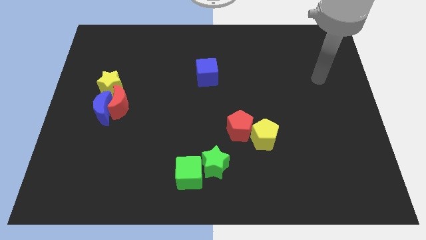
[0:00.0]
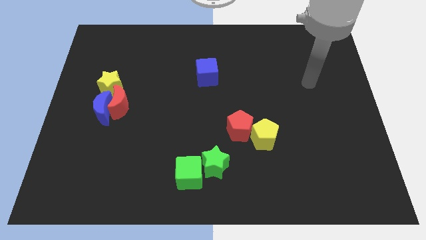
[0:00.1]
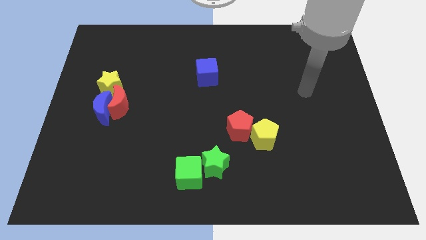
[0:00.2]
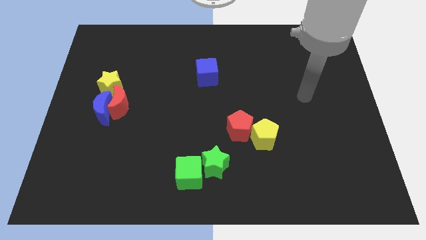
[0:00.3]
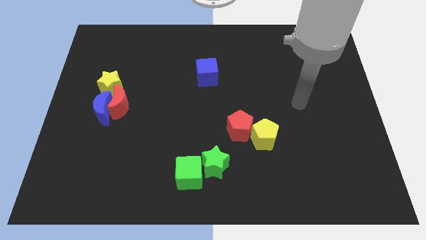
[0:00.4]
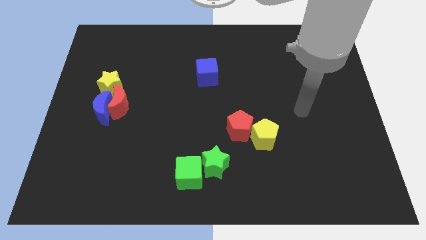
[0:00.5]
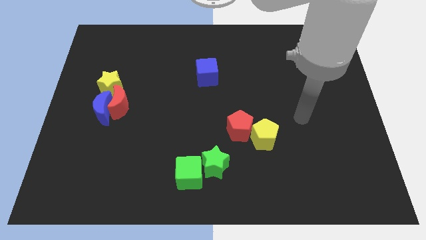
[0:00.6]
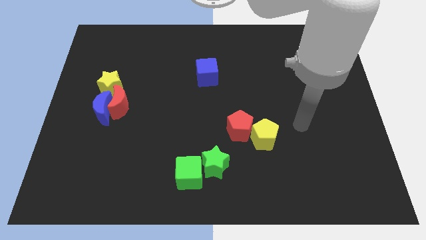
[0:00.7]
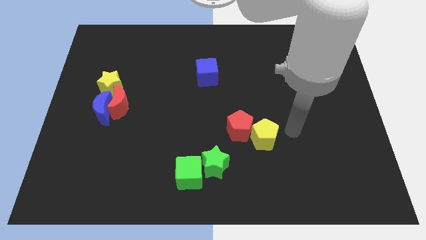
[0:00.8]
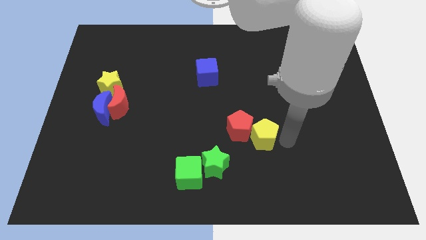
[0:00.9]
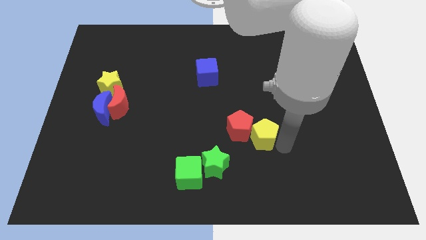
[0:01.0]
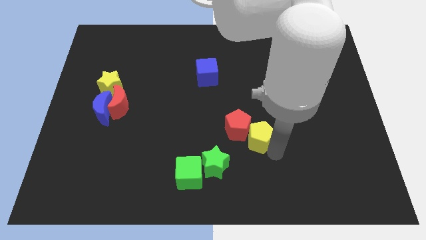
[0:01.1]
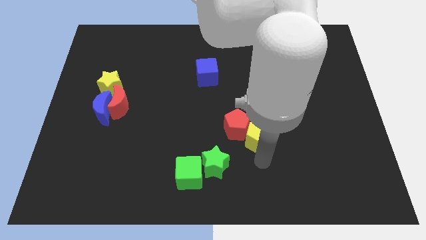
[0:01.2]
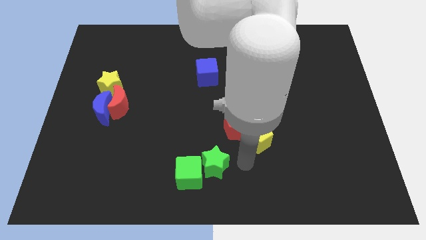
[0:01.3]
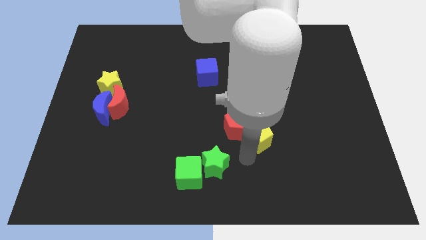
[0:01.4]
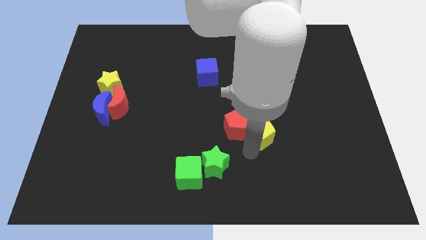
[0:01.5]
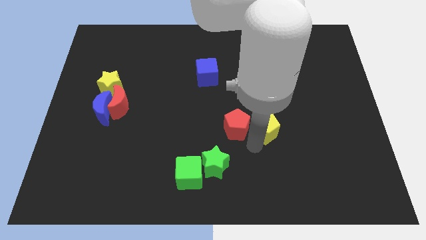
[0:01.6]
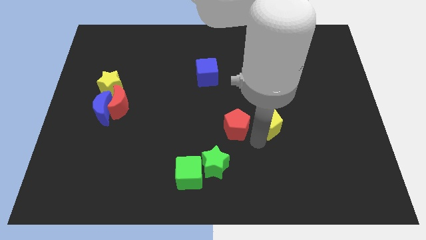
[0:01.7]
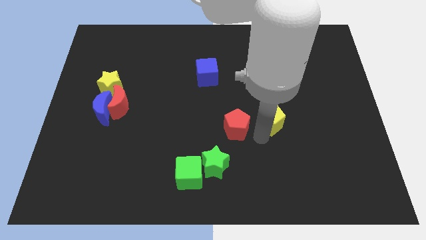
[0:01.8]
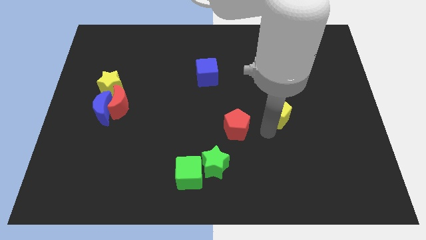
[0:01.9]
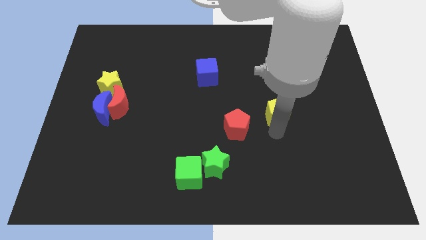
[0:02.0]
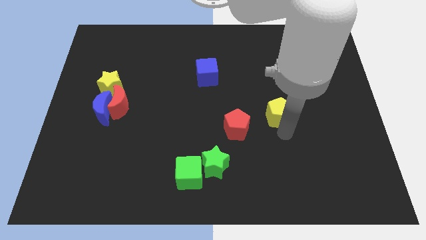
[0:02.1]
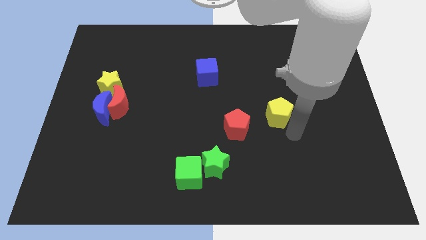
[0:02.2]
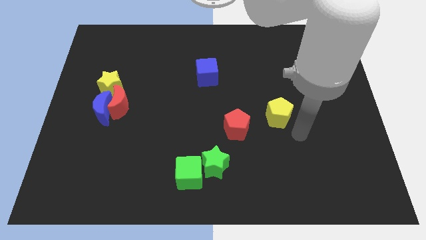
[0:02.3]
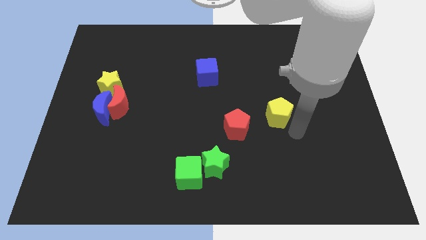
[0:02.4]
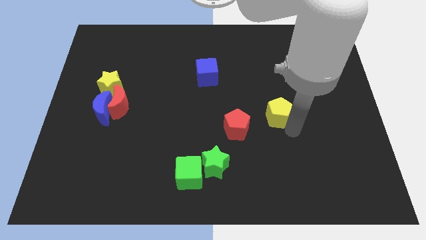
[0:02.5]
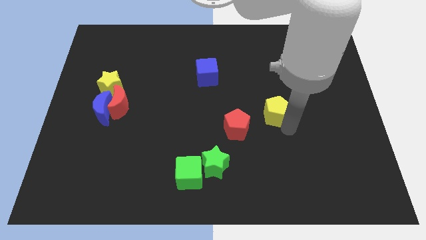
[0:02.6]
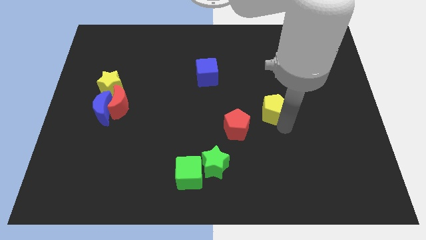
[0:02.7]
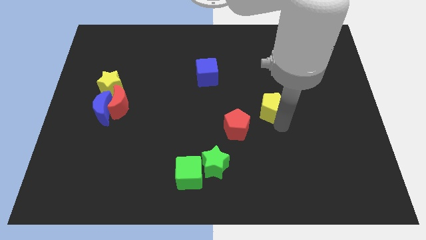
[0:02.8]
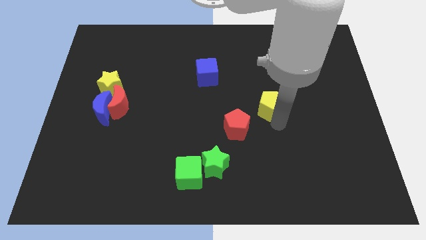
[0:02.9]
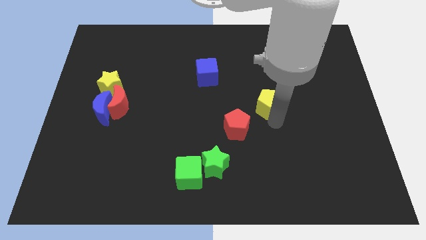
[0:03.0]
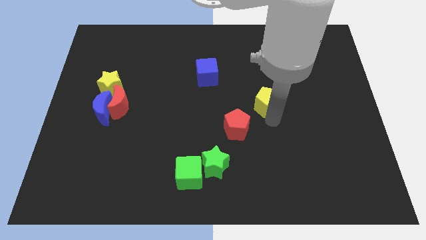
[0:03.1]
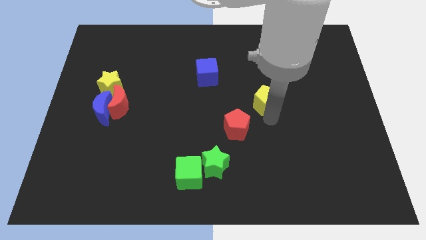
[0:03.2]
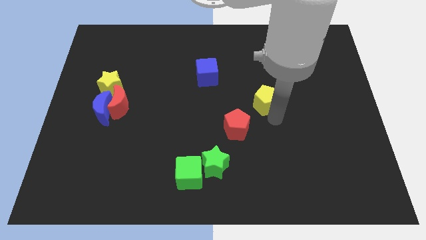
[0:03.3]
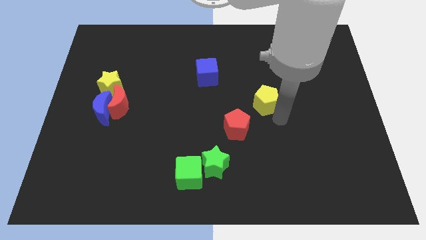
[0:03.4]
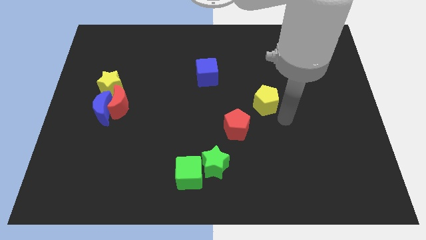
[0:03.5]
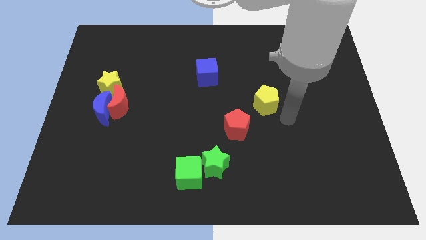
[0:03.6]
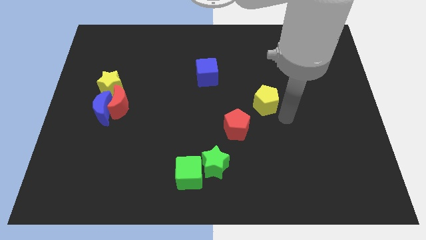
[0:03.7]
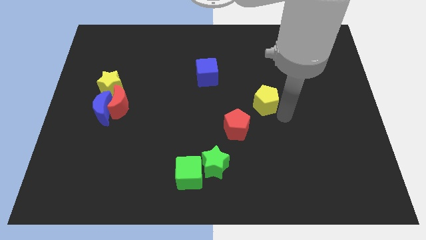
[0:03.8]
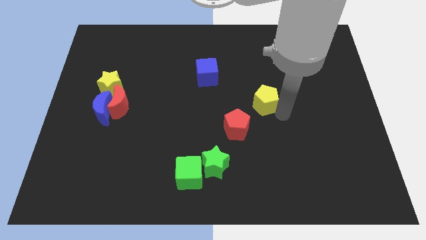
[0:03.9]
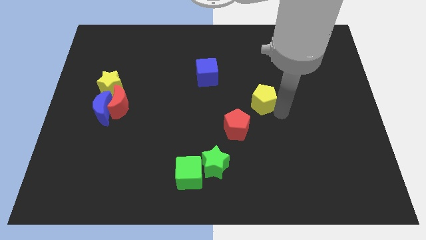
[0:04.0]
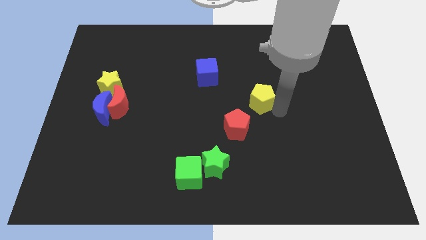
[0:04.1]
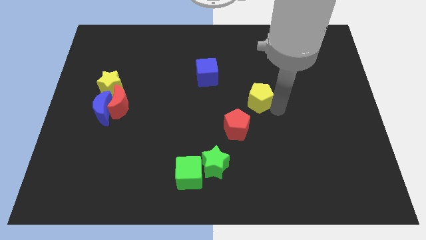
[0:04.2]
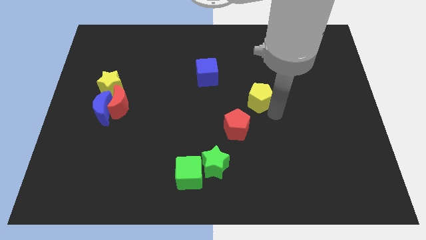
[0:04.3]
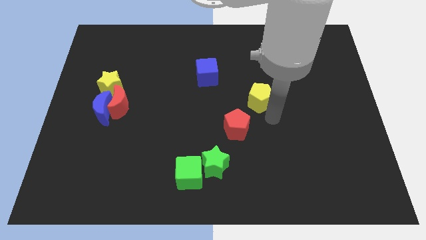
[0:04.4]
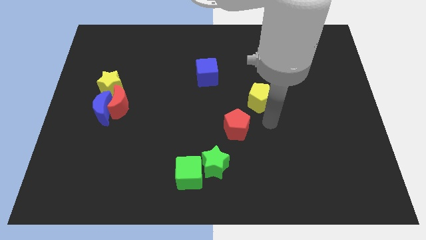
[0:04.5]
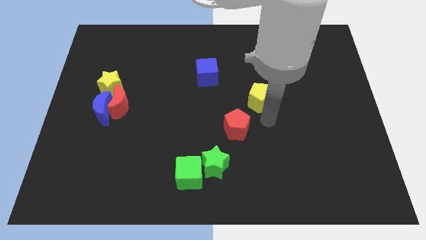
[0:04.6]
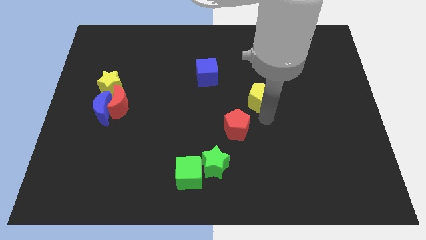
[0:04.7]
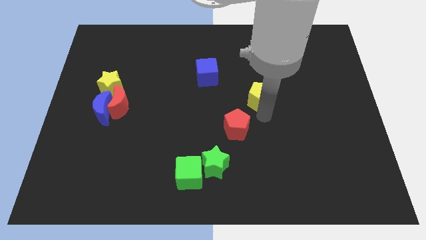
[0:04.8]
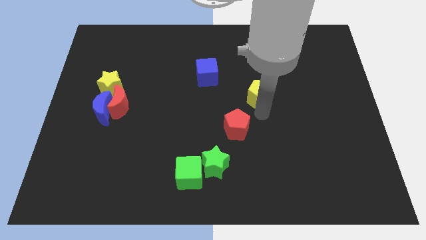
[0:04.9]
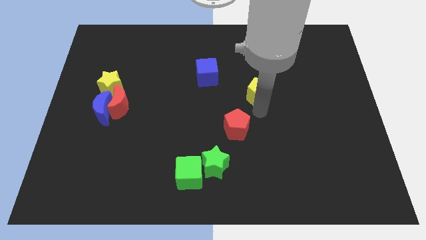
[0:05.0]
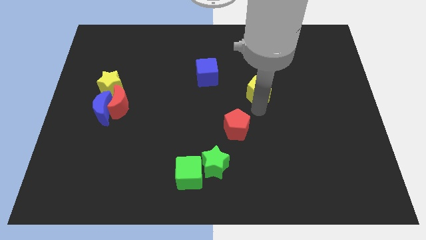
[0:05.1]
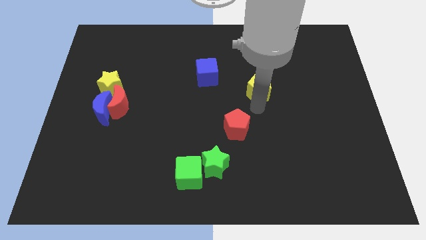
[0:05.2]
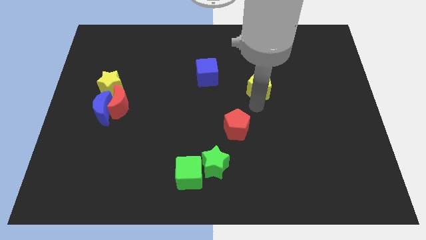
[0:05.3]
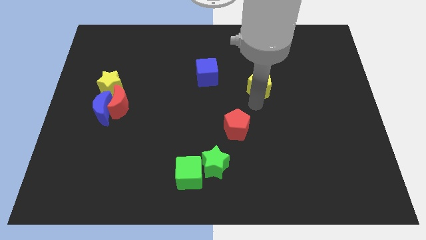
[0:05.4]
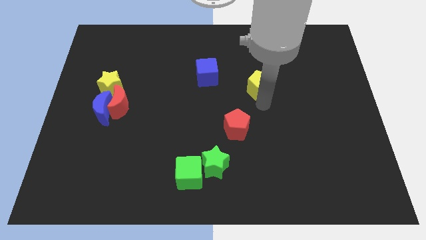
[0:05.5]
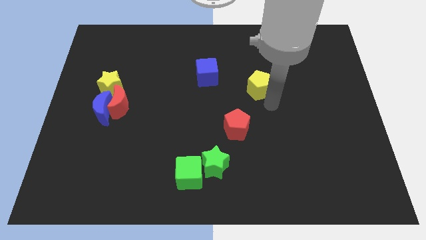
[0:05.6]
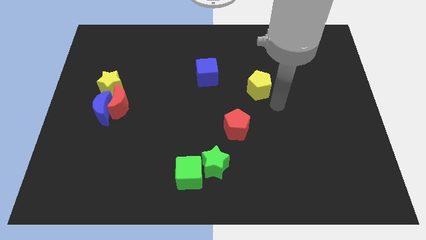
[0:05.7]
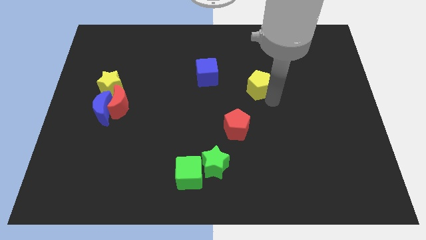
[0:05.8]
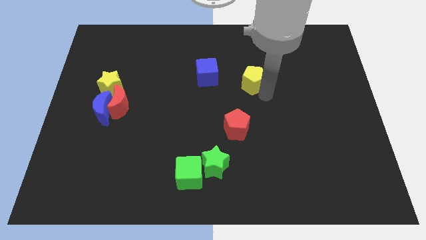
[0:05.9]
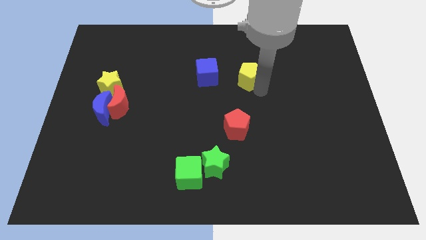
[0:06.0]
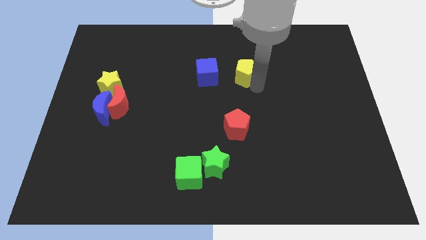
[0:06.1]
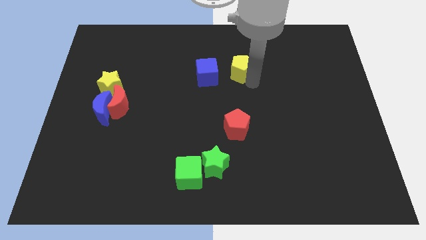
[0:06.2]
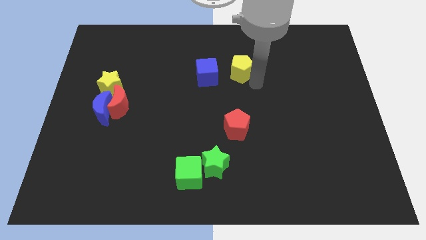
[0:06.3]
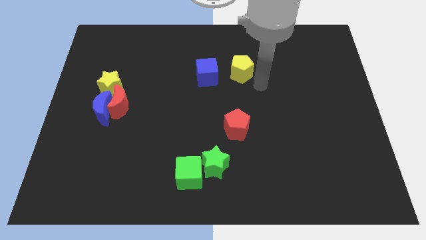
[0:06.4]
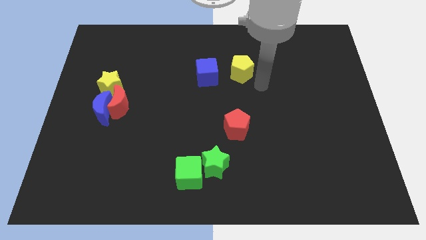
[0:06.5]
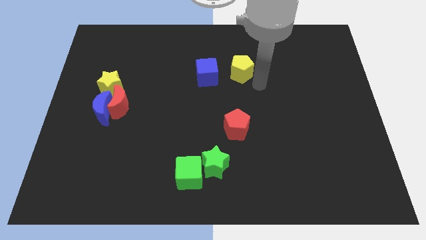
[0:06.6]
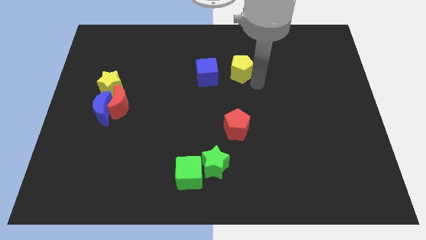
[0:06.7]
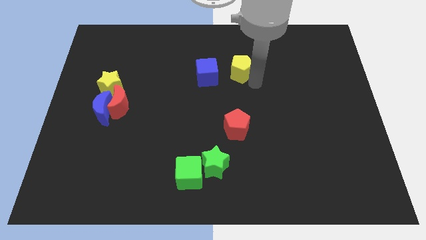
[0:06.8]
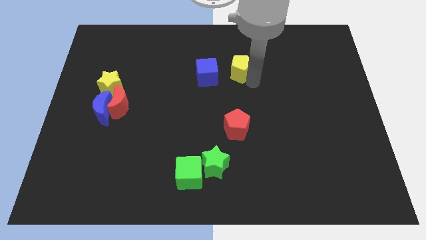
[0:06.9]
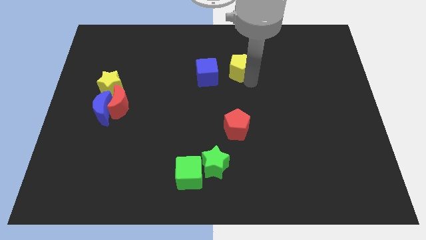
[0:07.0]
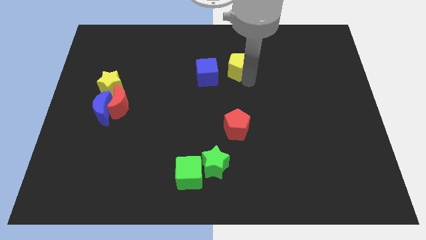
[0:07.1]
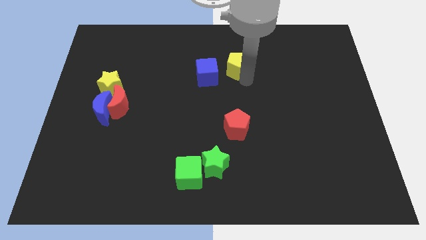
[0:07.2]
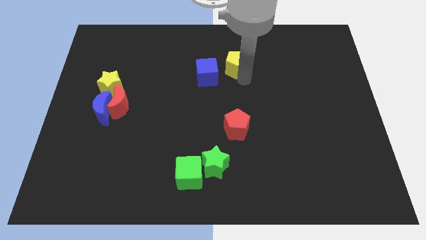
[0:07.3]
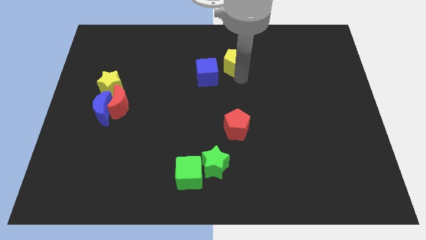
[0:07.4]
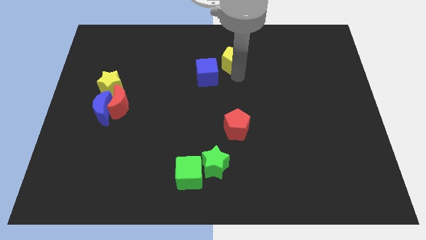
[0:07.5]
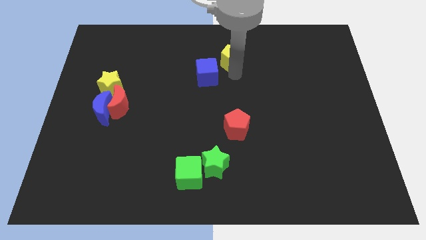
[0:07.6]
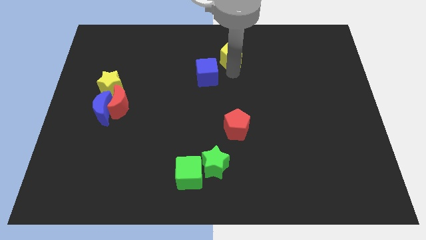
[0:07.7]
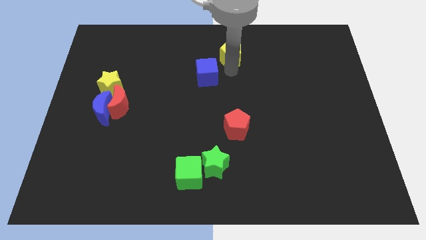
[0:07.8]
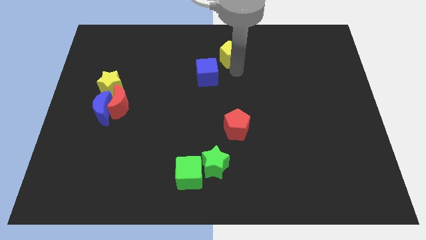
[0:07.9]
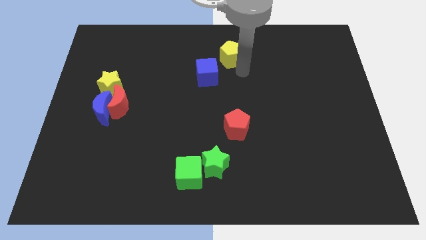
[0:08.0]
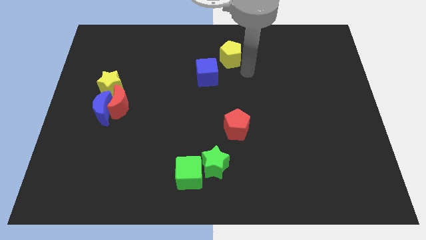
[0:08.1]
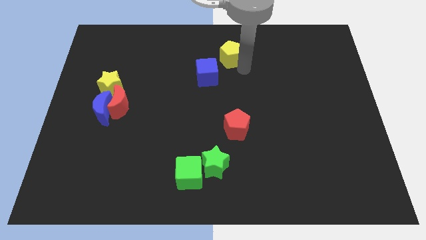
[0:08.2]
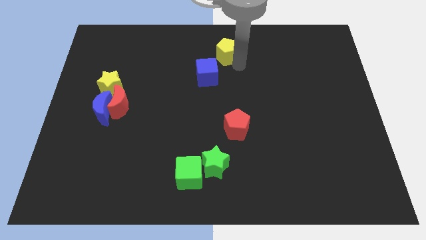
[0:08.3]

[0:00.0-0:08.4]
move the yellow pentagon to the top
